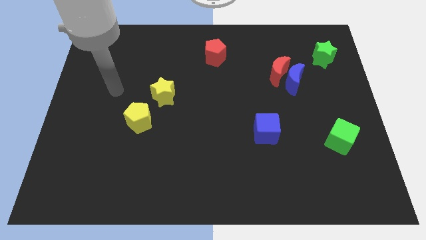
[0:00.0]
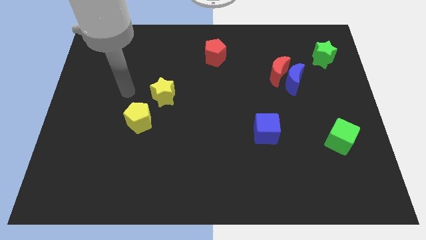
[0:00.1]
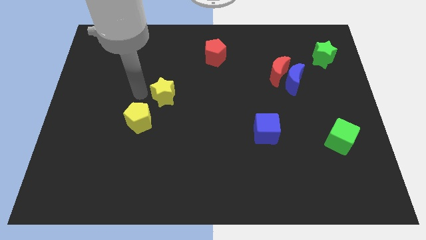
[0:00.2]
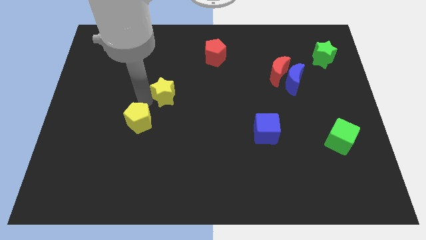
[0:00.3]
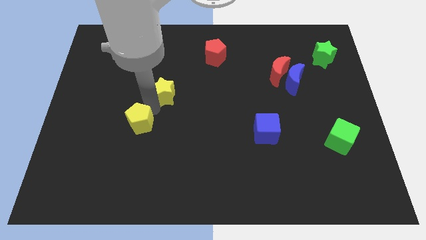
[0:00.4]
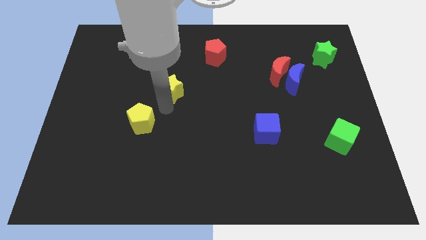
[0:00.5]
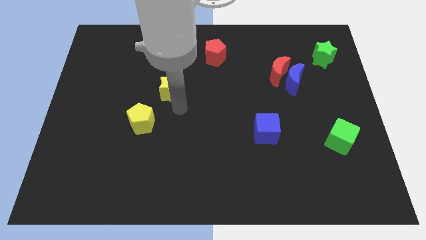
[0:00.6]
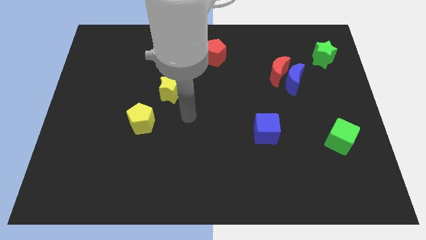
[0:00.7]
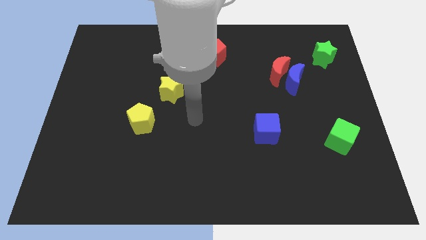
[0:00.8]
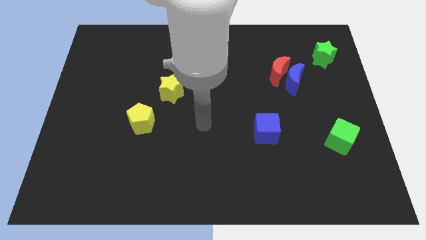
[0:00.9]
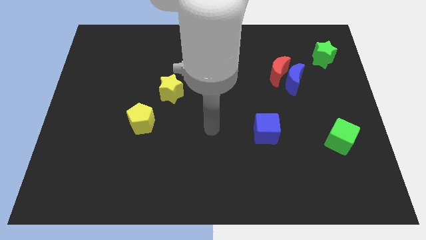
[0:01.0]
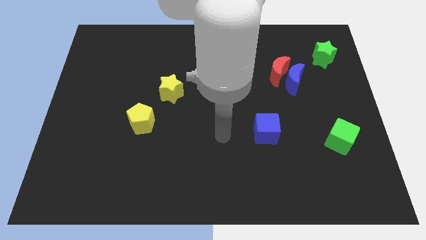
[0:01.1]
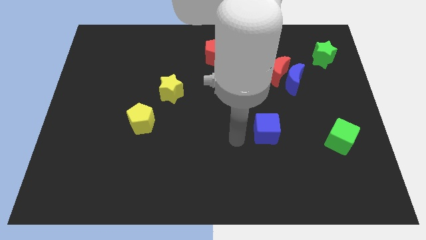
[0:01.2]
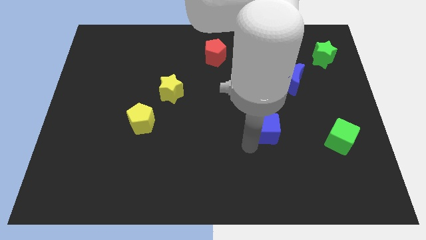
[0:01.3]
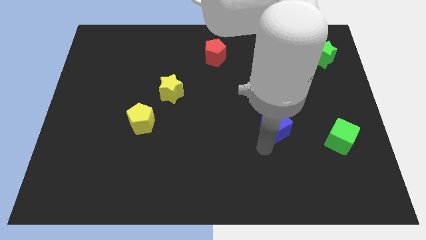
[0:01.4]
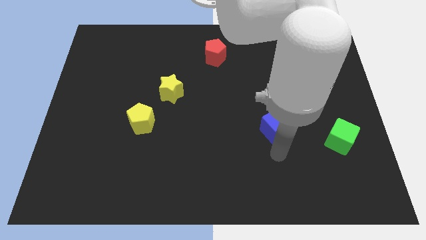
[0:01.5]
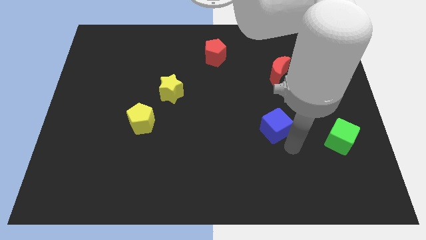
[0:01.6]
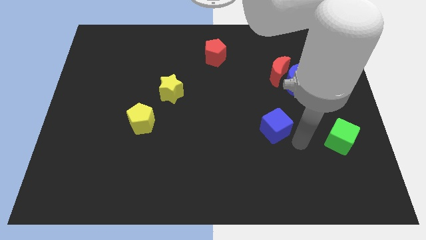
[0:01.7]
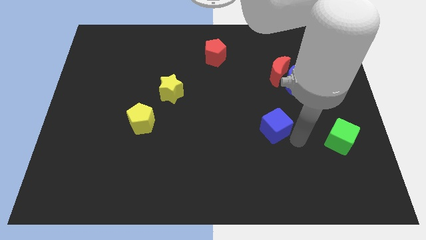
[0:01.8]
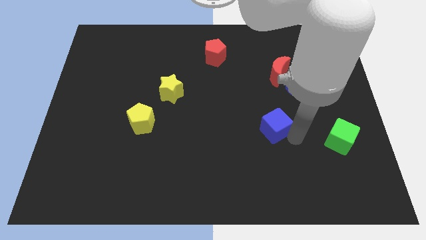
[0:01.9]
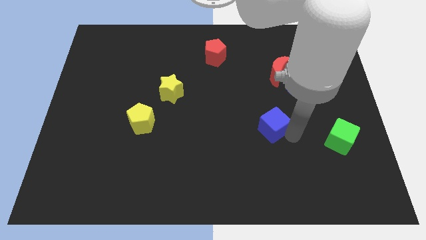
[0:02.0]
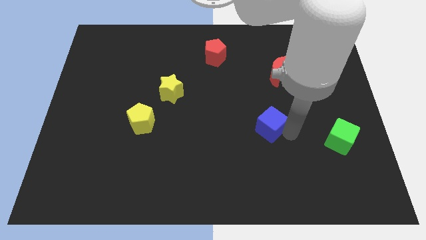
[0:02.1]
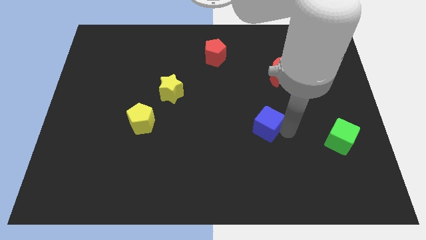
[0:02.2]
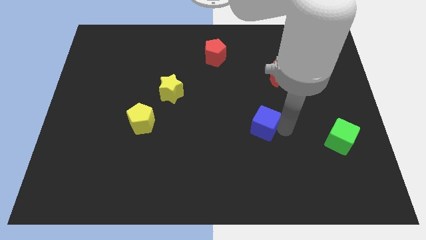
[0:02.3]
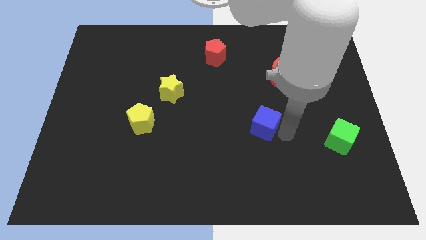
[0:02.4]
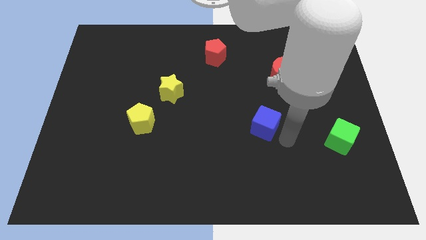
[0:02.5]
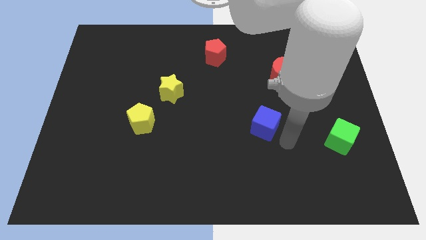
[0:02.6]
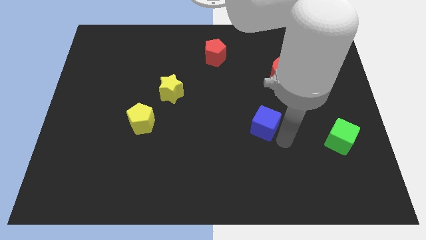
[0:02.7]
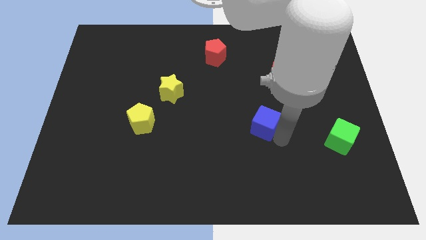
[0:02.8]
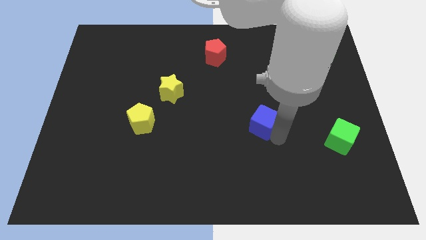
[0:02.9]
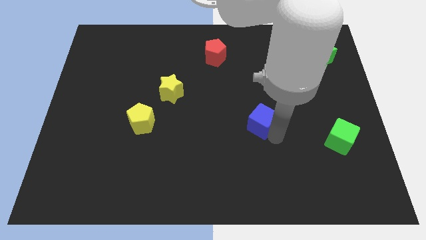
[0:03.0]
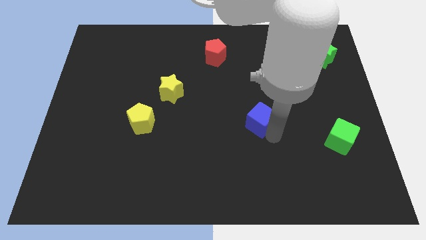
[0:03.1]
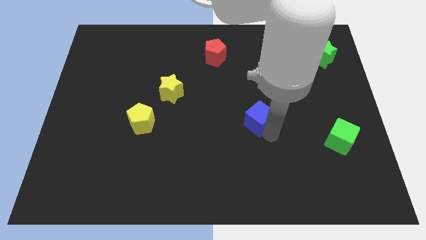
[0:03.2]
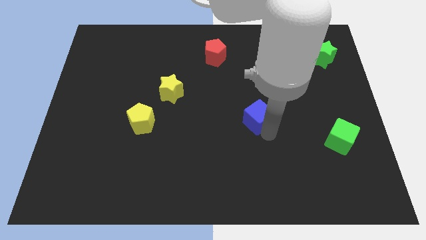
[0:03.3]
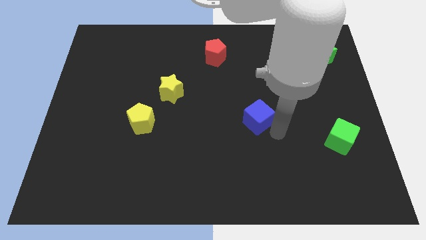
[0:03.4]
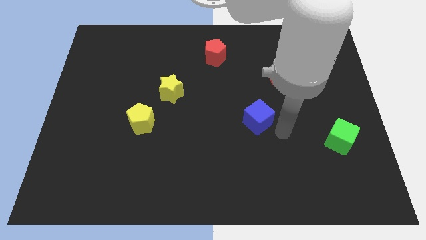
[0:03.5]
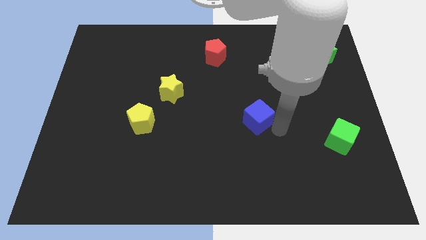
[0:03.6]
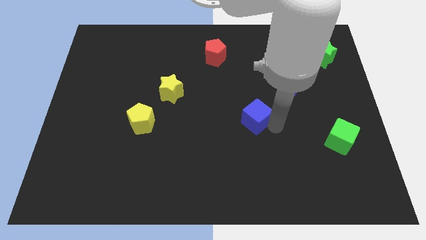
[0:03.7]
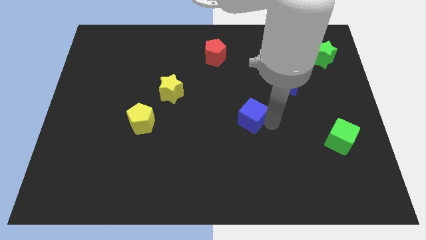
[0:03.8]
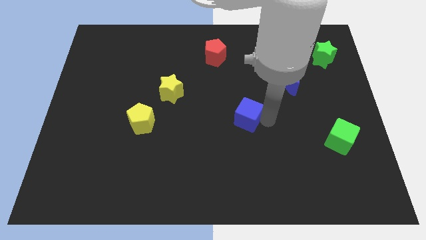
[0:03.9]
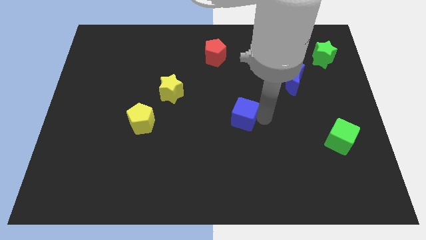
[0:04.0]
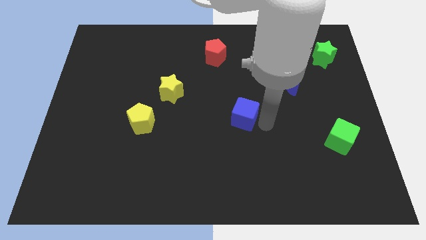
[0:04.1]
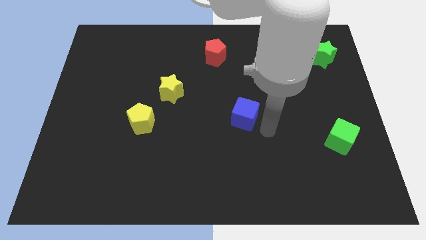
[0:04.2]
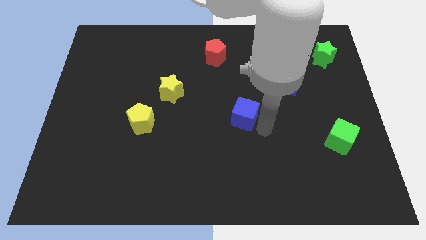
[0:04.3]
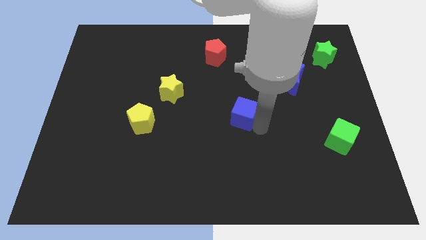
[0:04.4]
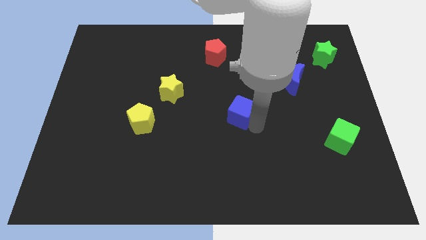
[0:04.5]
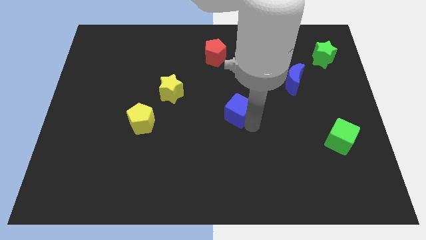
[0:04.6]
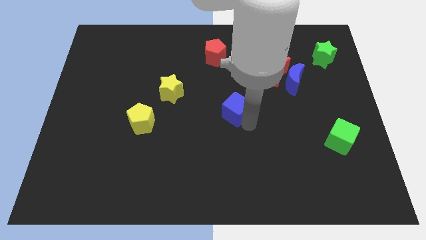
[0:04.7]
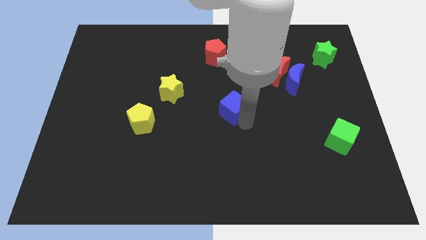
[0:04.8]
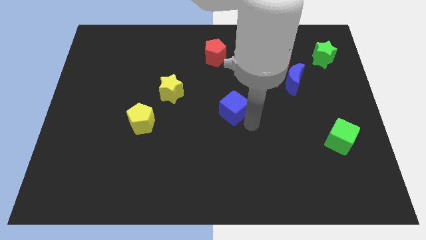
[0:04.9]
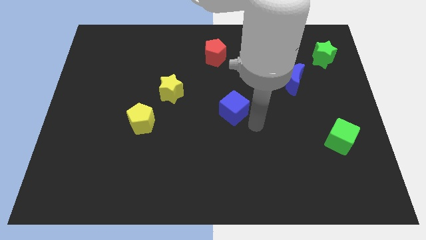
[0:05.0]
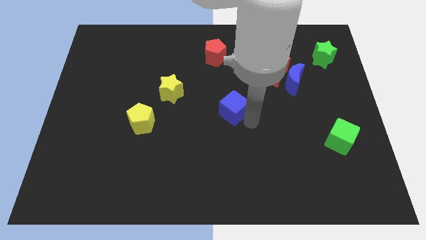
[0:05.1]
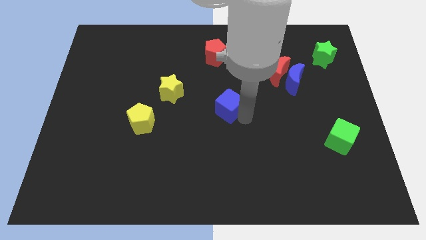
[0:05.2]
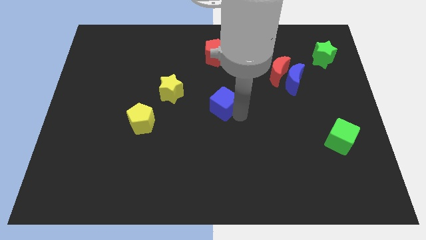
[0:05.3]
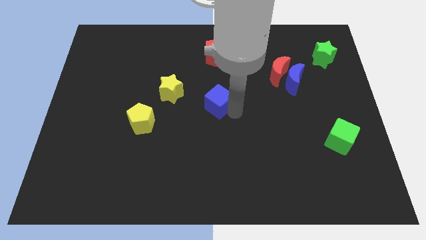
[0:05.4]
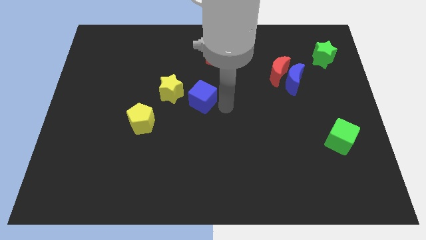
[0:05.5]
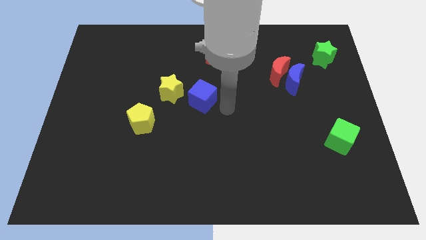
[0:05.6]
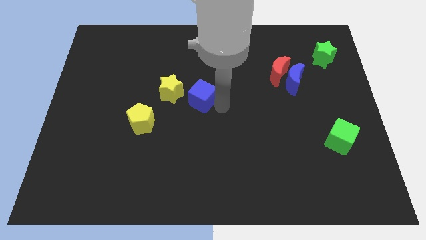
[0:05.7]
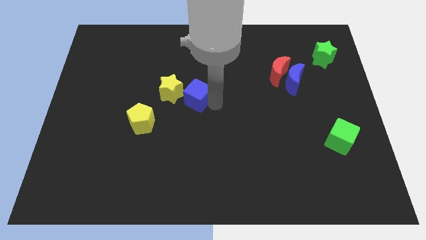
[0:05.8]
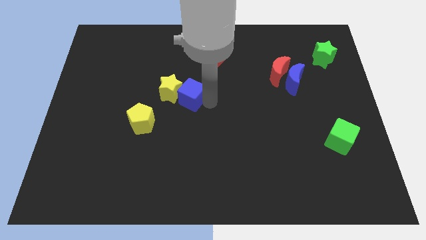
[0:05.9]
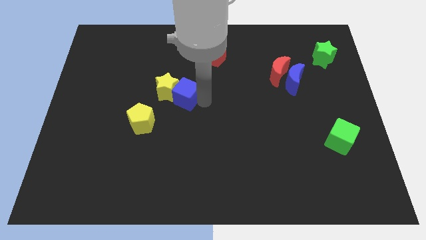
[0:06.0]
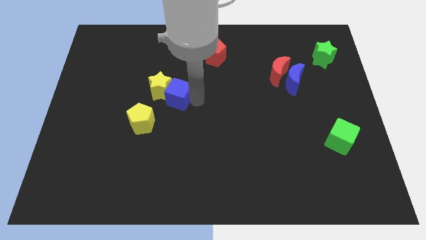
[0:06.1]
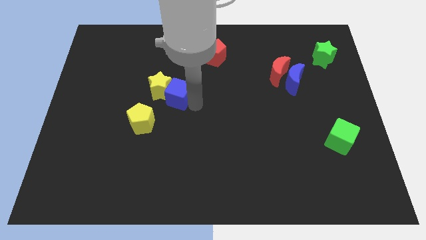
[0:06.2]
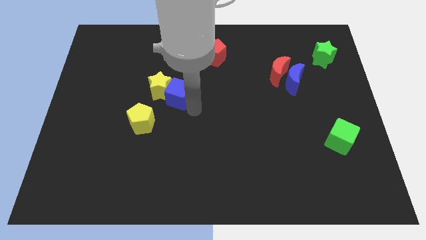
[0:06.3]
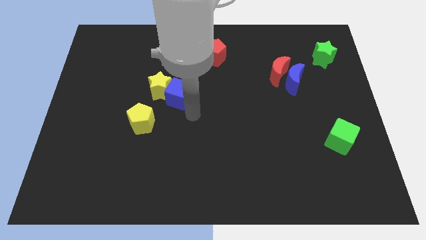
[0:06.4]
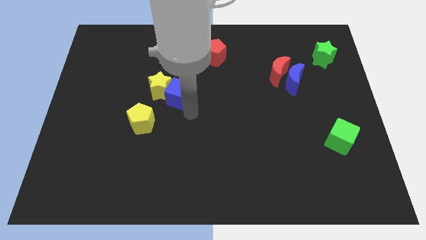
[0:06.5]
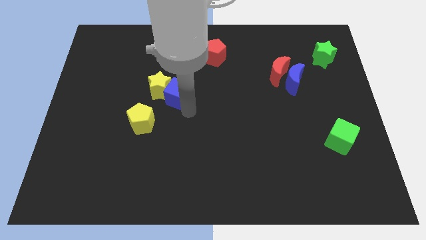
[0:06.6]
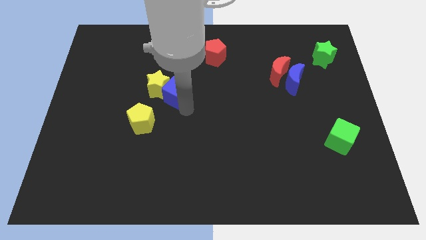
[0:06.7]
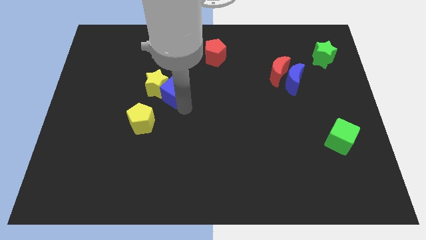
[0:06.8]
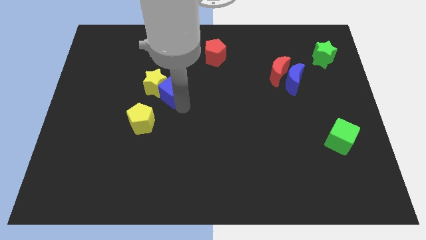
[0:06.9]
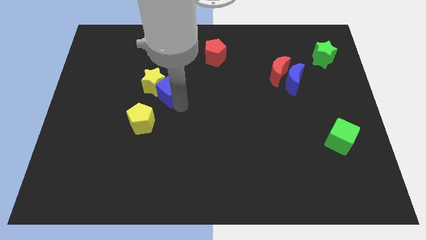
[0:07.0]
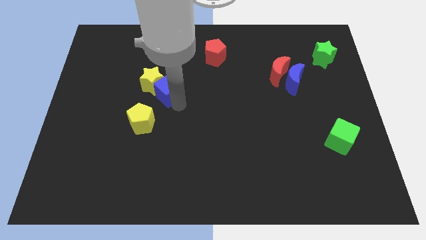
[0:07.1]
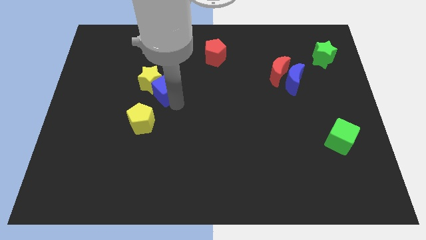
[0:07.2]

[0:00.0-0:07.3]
push the blue cube to the top of the yellow pentagon
